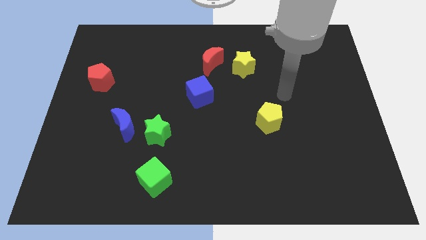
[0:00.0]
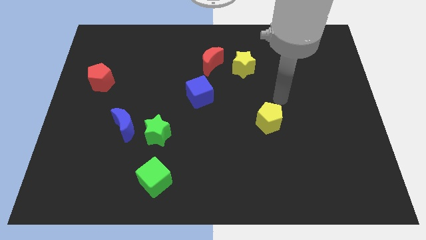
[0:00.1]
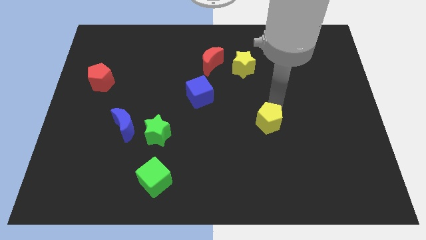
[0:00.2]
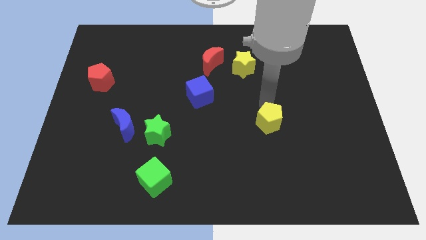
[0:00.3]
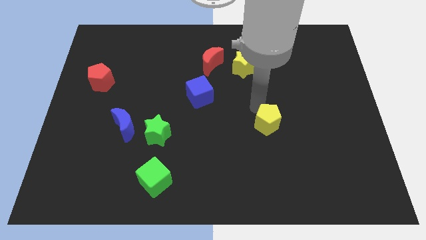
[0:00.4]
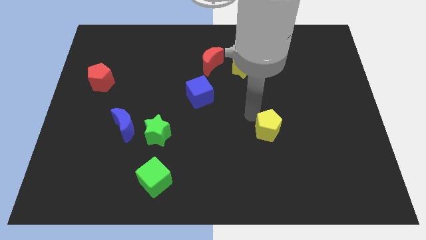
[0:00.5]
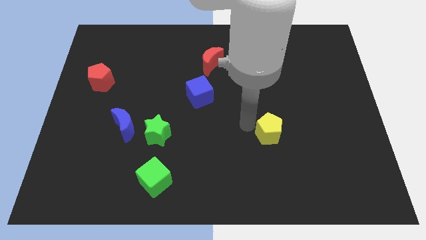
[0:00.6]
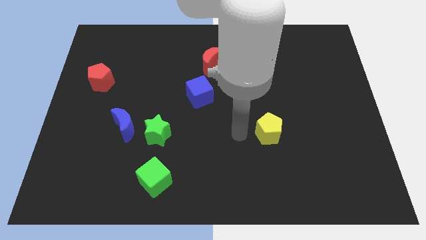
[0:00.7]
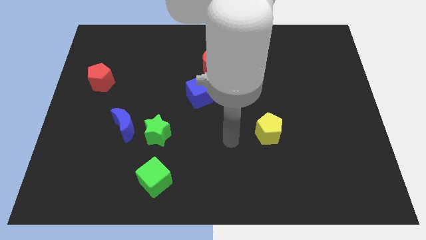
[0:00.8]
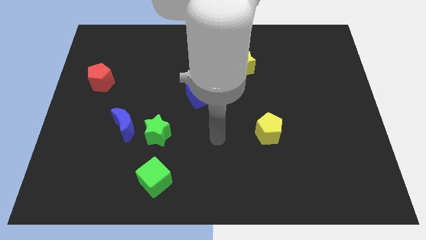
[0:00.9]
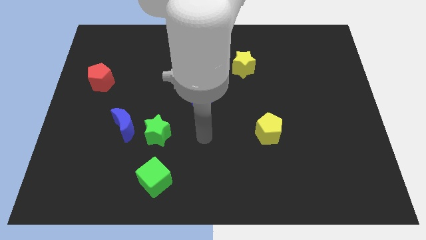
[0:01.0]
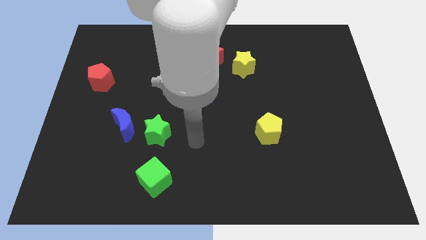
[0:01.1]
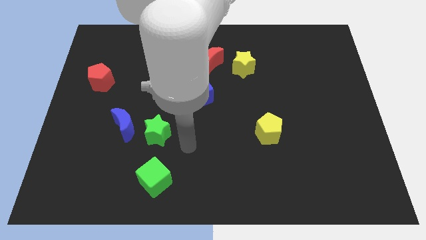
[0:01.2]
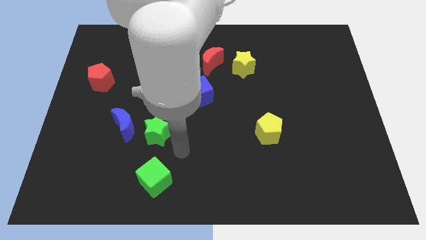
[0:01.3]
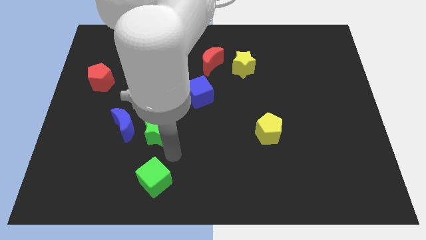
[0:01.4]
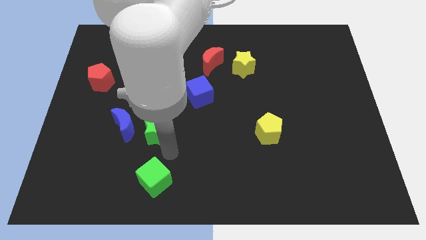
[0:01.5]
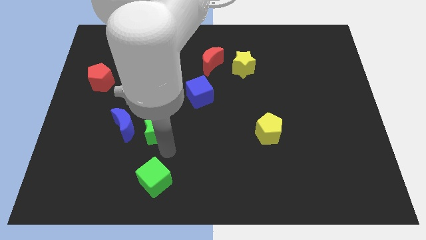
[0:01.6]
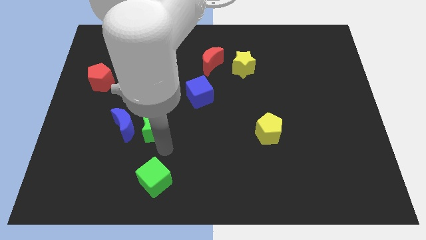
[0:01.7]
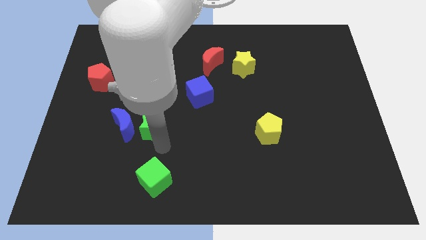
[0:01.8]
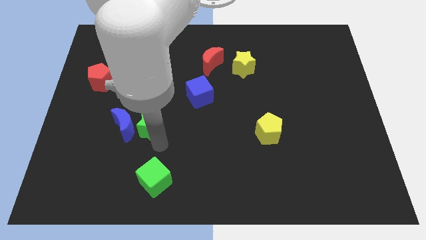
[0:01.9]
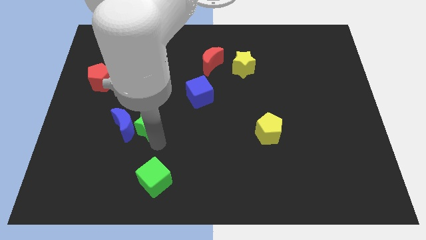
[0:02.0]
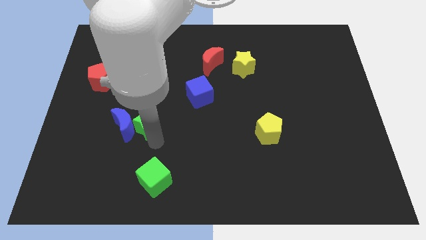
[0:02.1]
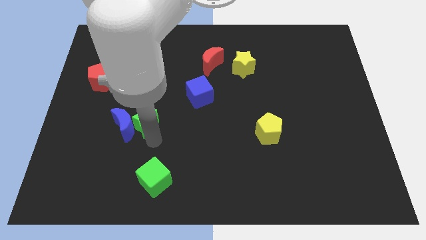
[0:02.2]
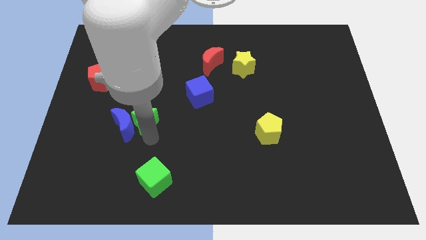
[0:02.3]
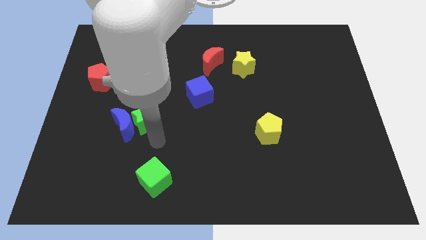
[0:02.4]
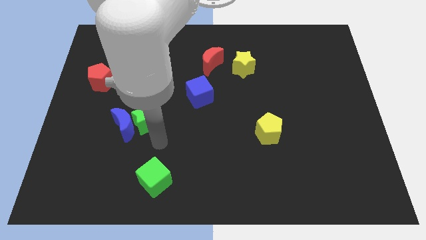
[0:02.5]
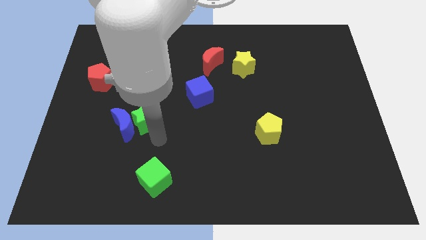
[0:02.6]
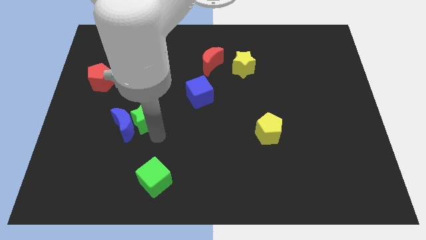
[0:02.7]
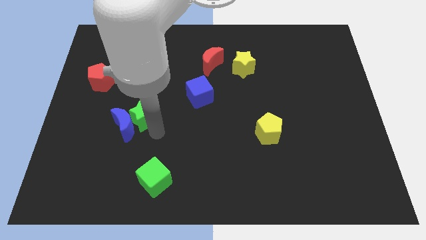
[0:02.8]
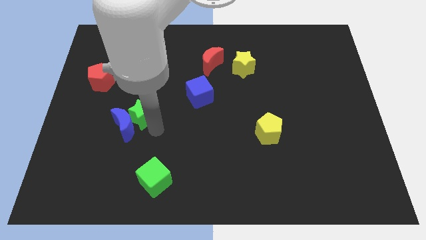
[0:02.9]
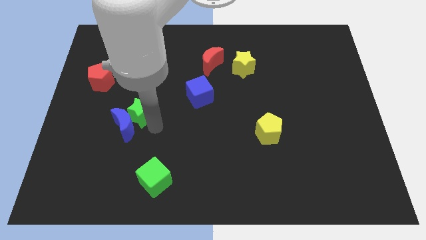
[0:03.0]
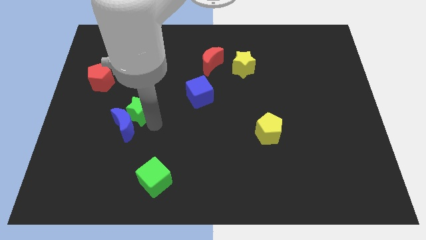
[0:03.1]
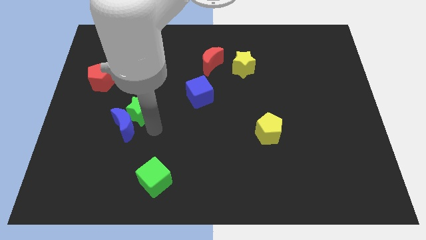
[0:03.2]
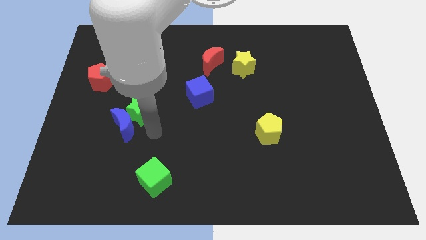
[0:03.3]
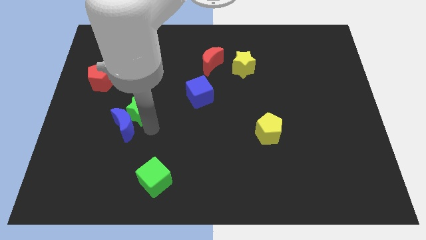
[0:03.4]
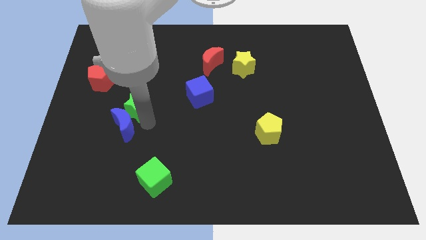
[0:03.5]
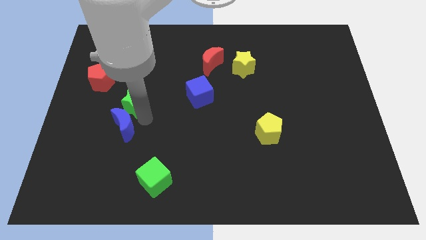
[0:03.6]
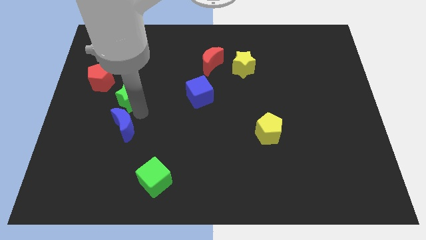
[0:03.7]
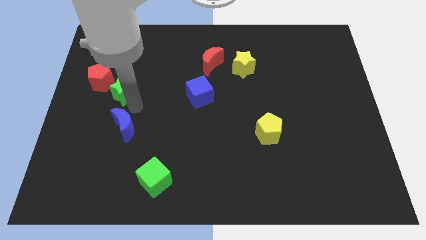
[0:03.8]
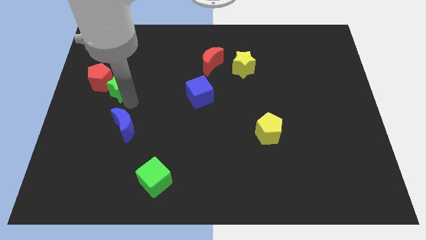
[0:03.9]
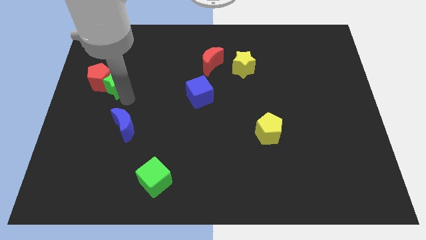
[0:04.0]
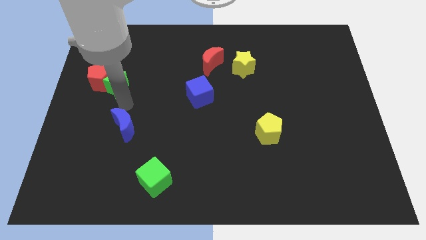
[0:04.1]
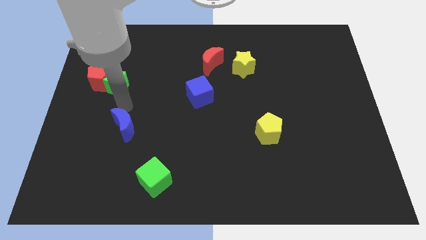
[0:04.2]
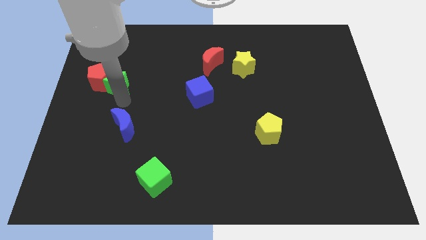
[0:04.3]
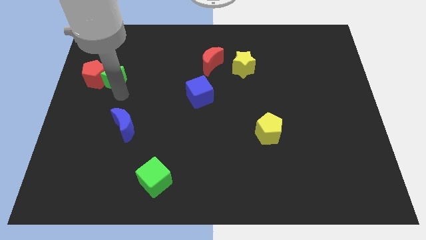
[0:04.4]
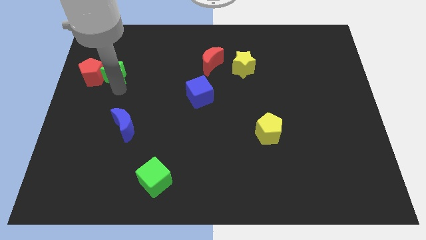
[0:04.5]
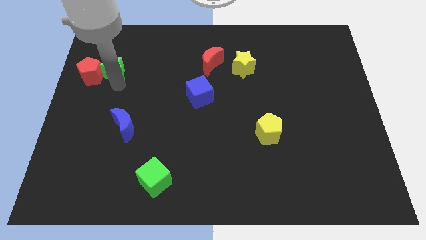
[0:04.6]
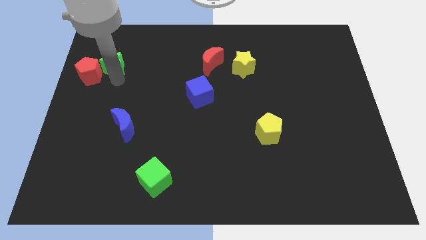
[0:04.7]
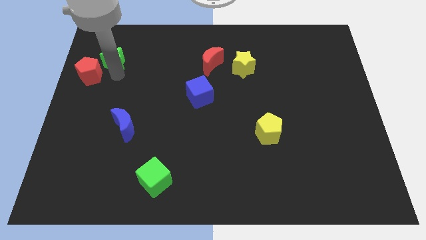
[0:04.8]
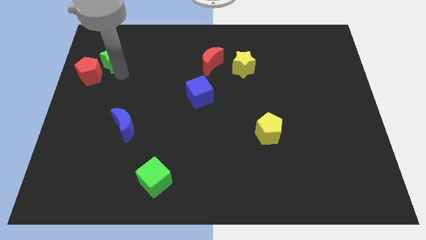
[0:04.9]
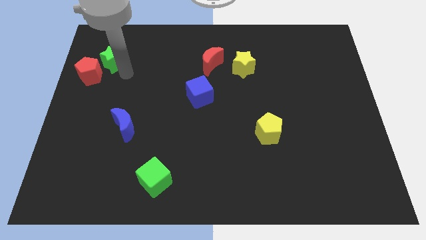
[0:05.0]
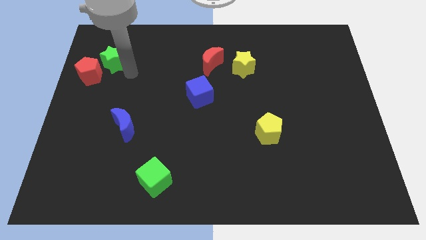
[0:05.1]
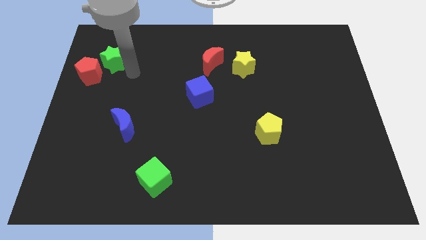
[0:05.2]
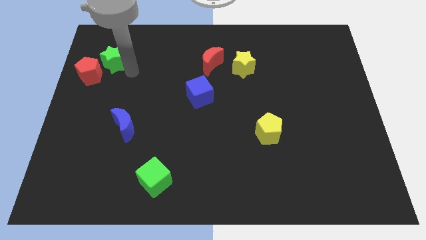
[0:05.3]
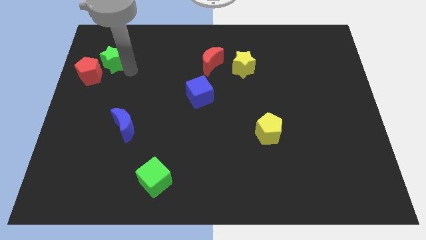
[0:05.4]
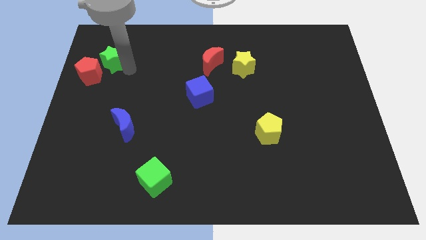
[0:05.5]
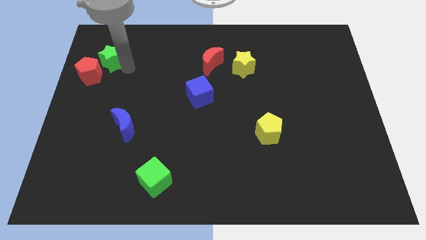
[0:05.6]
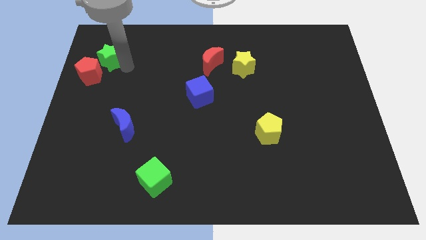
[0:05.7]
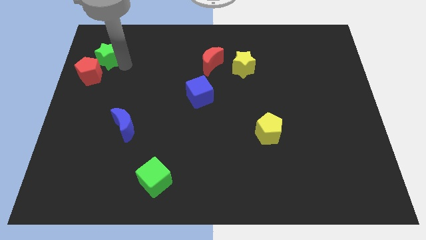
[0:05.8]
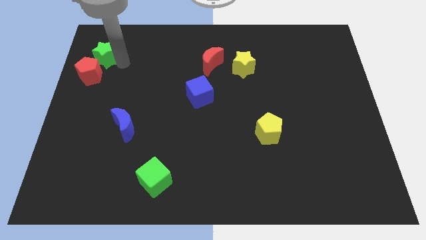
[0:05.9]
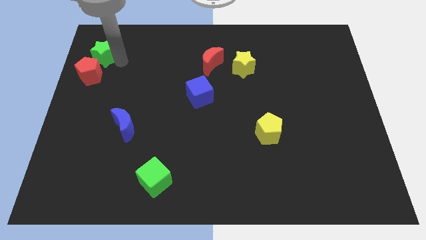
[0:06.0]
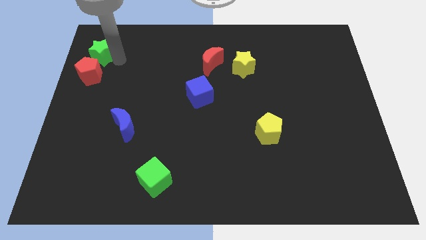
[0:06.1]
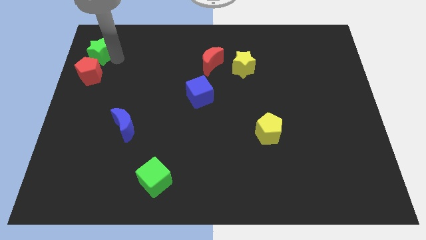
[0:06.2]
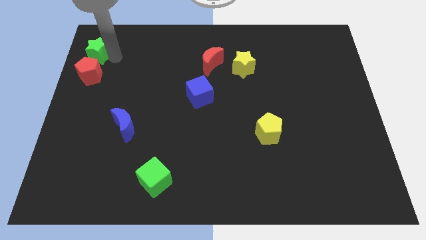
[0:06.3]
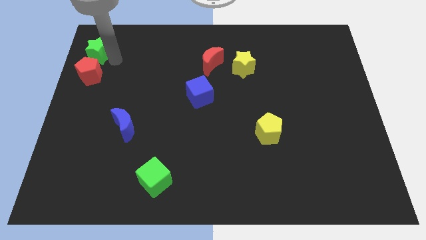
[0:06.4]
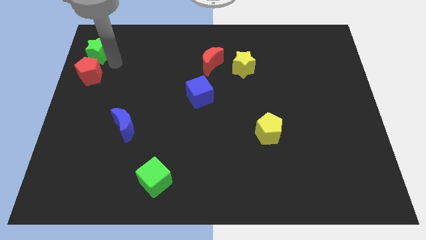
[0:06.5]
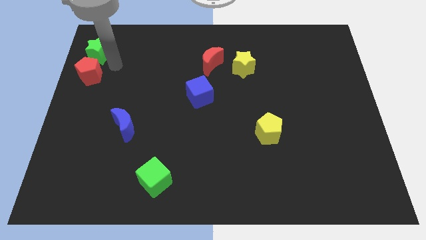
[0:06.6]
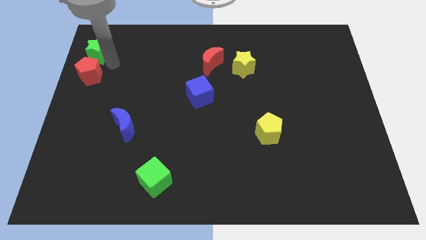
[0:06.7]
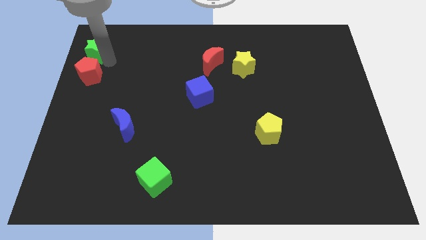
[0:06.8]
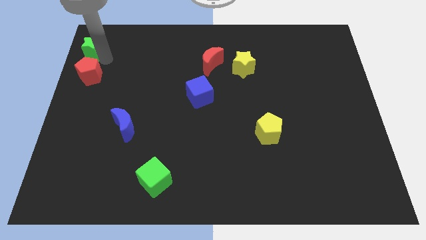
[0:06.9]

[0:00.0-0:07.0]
move the green star to the upper left corner

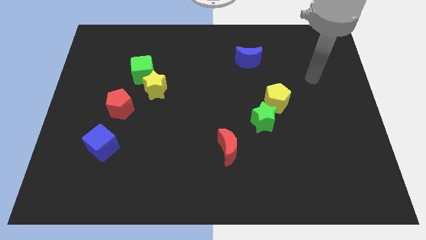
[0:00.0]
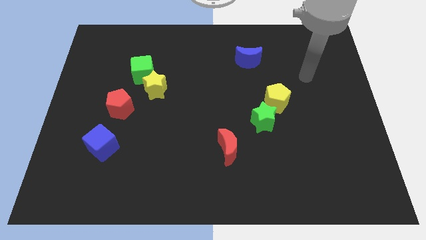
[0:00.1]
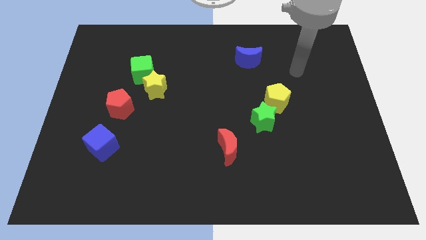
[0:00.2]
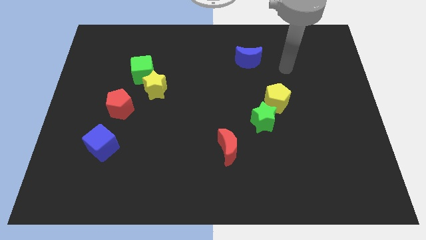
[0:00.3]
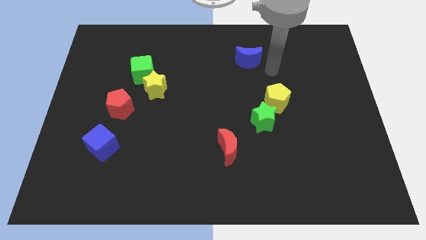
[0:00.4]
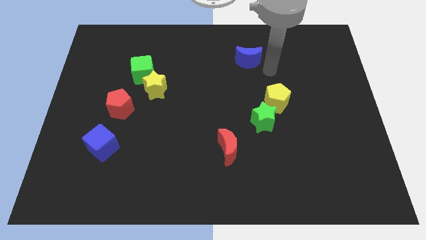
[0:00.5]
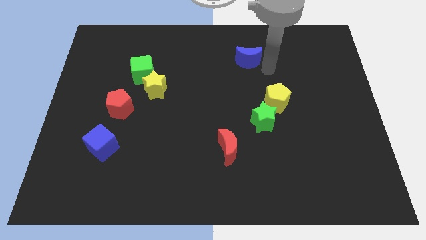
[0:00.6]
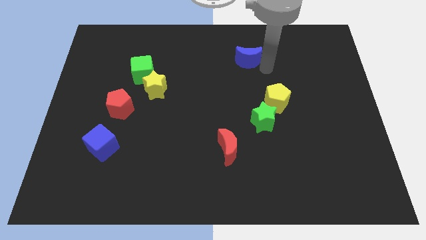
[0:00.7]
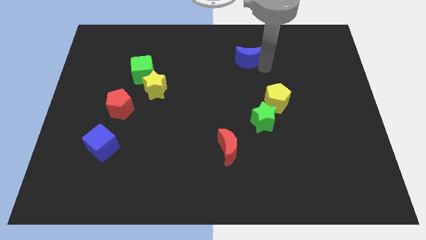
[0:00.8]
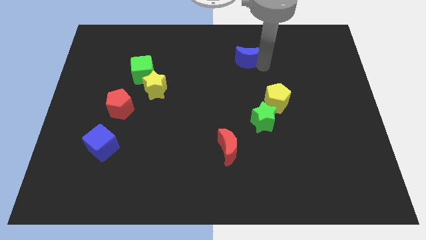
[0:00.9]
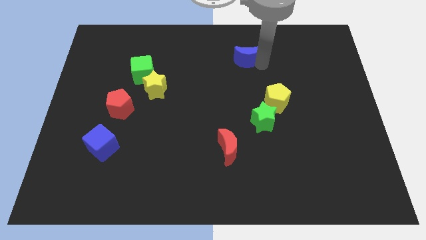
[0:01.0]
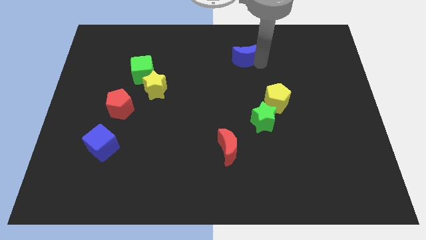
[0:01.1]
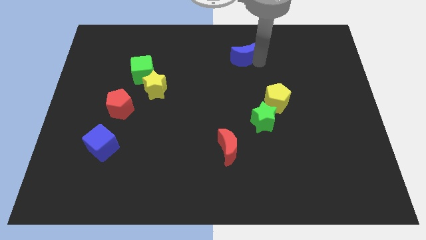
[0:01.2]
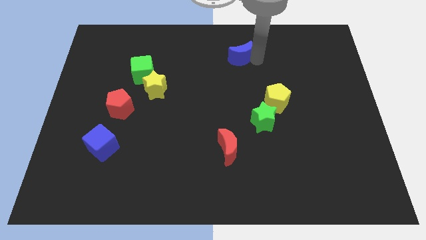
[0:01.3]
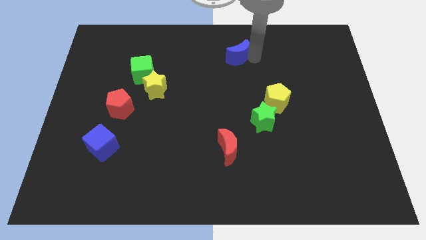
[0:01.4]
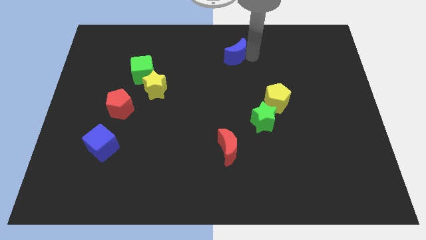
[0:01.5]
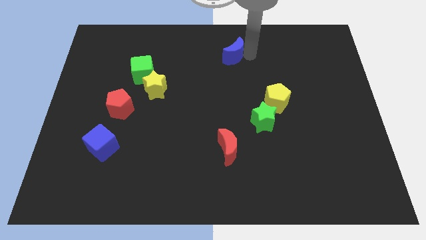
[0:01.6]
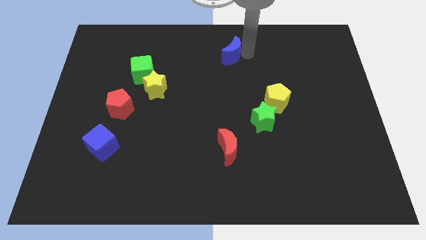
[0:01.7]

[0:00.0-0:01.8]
move the blue moon to the top
